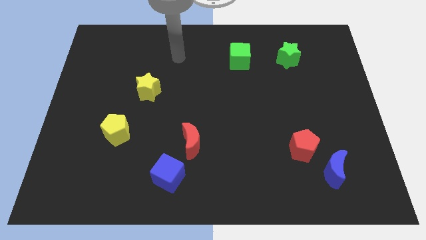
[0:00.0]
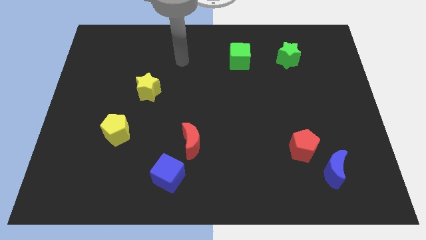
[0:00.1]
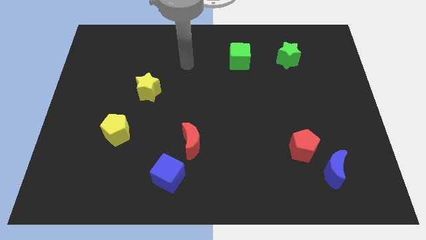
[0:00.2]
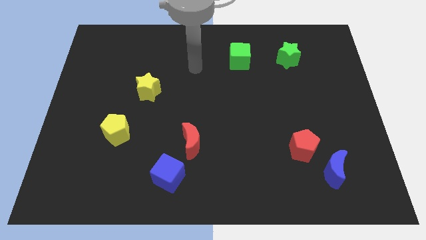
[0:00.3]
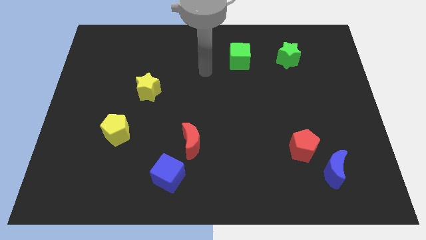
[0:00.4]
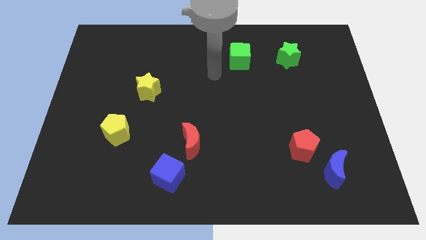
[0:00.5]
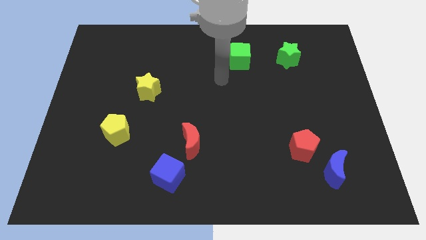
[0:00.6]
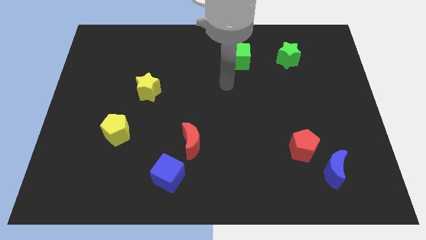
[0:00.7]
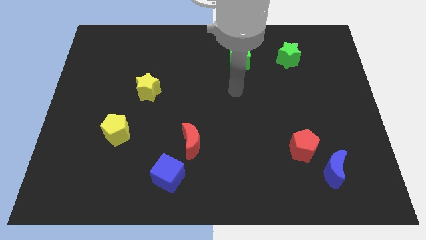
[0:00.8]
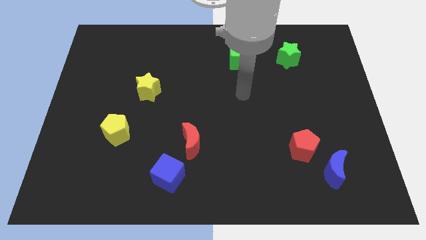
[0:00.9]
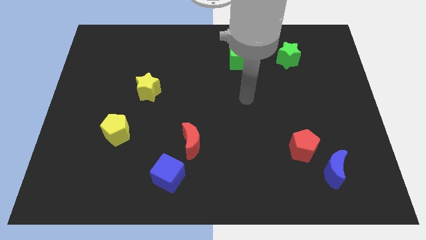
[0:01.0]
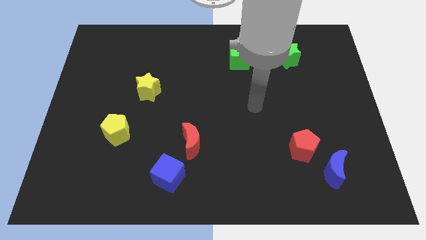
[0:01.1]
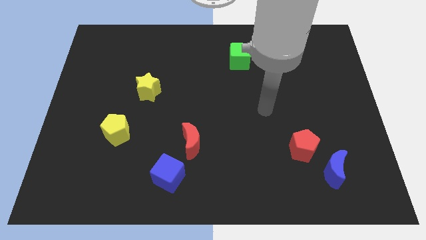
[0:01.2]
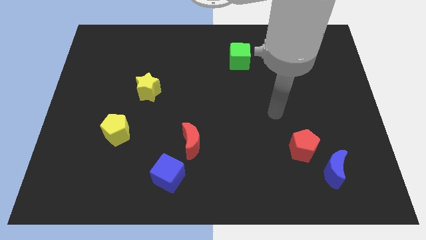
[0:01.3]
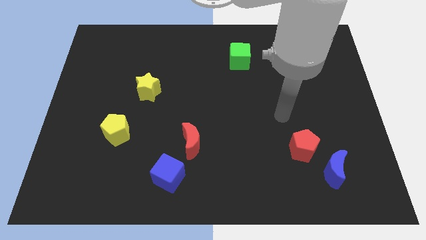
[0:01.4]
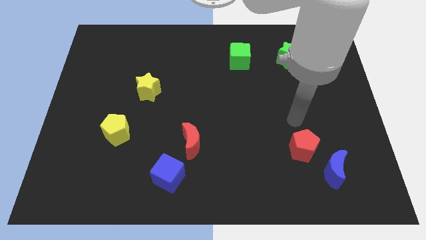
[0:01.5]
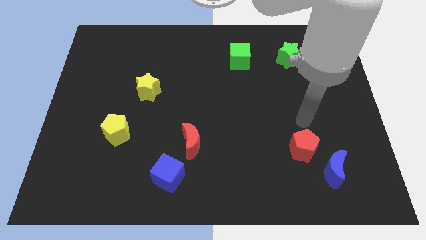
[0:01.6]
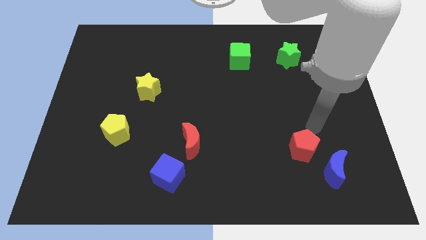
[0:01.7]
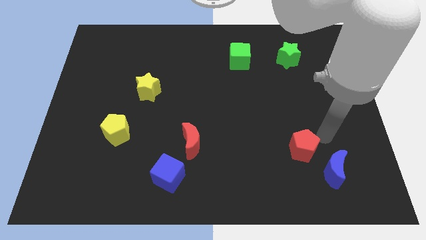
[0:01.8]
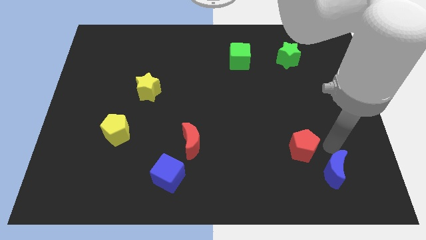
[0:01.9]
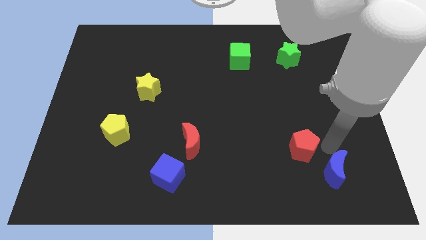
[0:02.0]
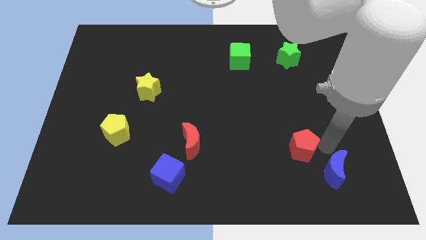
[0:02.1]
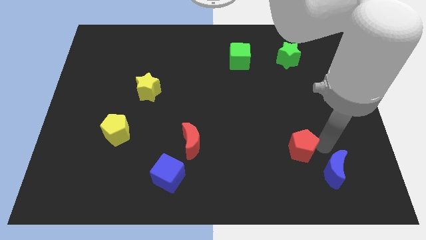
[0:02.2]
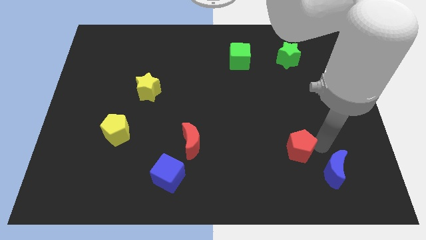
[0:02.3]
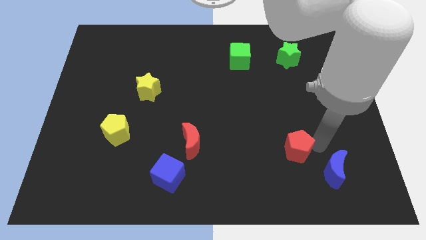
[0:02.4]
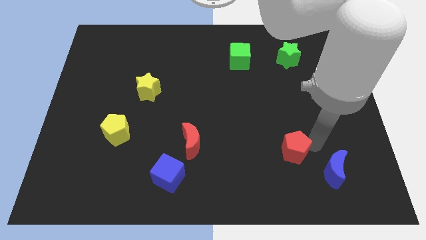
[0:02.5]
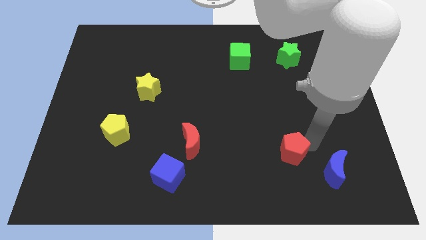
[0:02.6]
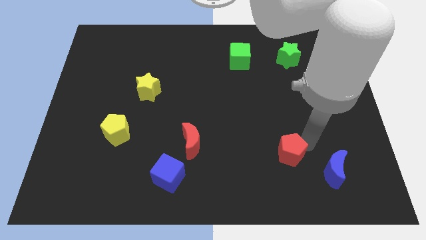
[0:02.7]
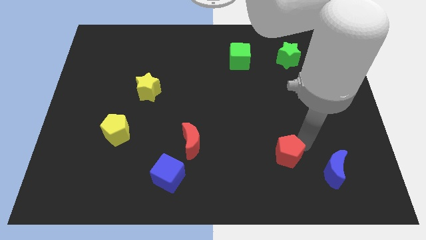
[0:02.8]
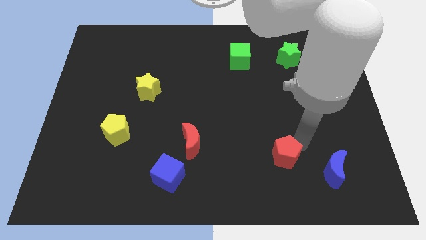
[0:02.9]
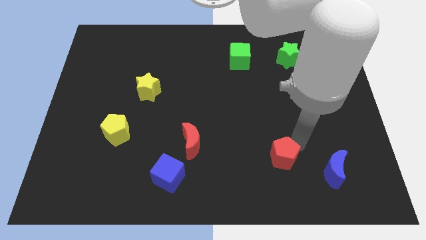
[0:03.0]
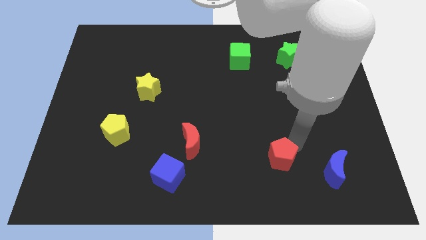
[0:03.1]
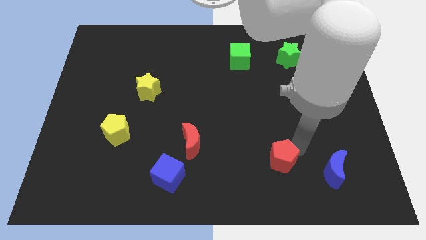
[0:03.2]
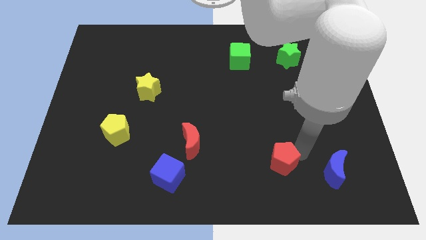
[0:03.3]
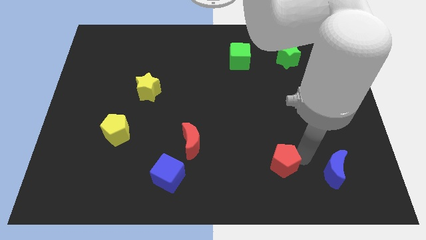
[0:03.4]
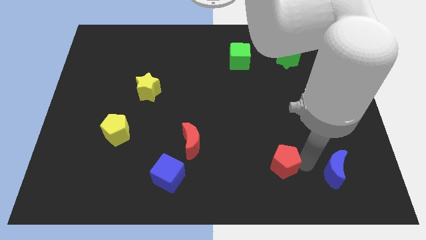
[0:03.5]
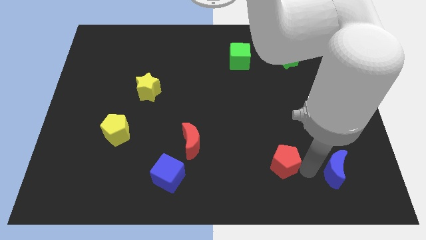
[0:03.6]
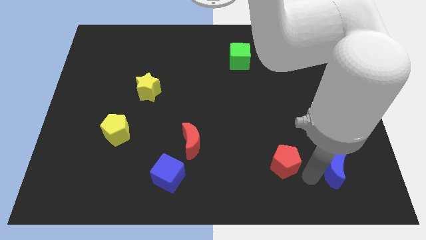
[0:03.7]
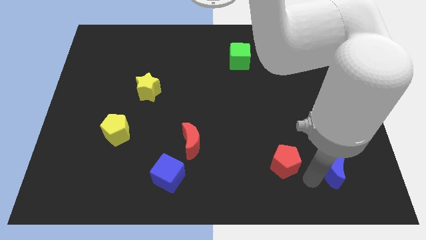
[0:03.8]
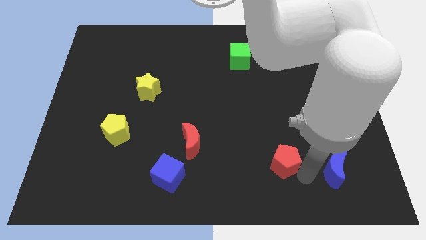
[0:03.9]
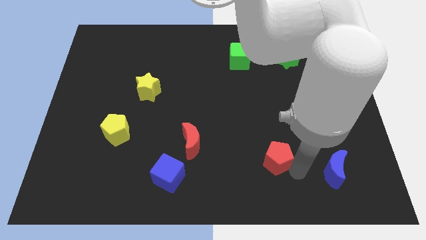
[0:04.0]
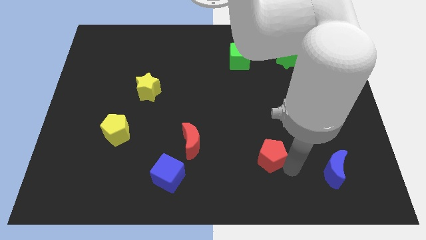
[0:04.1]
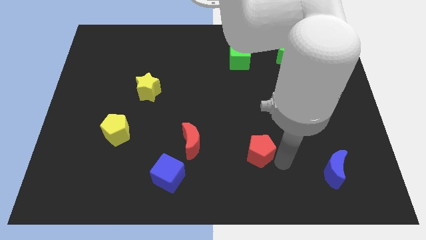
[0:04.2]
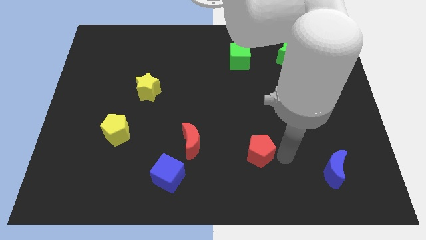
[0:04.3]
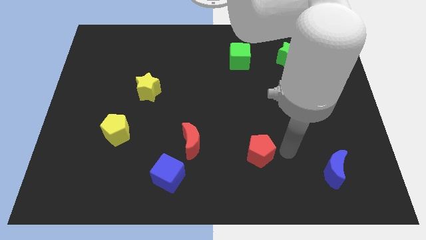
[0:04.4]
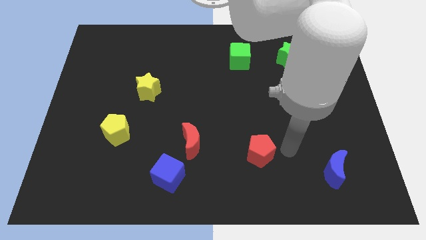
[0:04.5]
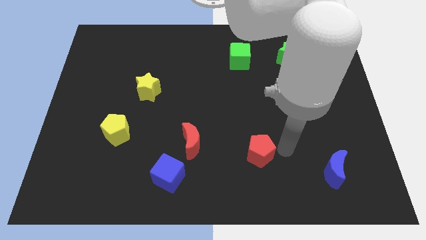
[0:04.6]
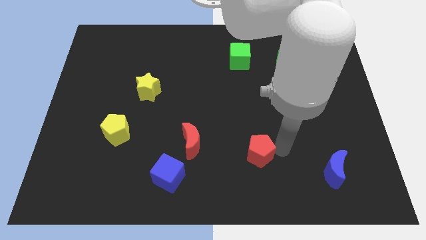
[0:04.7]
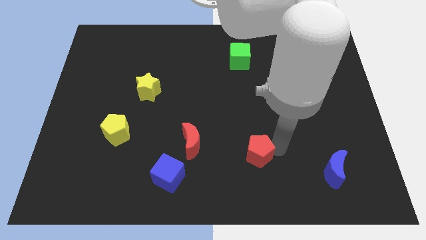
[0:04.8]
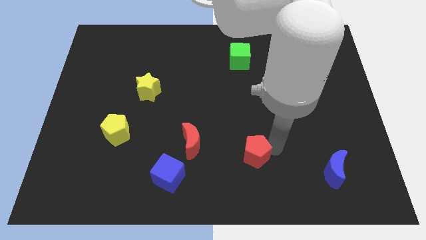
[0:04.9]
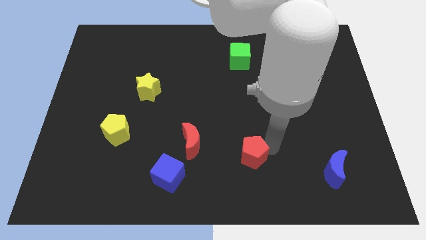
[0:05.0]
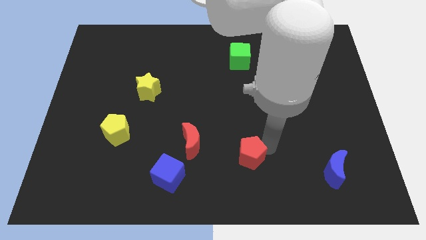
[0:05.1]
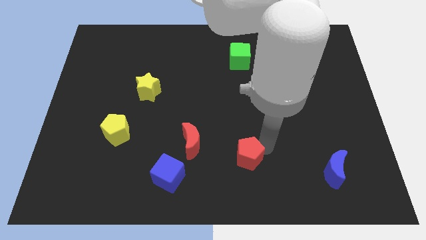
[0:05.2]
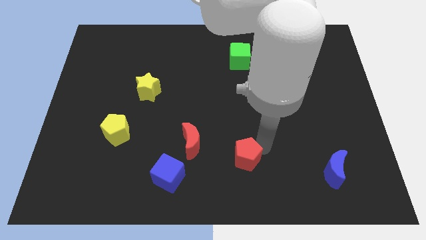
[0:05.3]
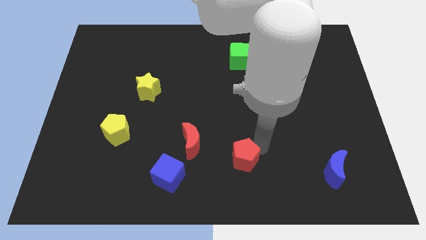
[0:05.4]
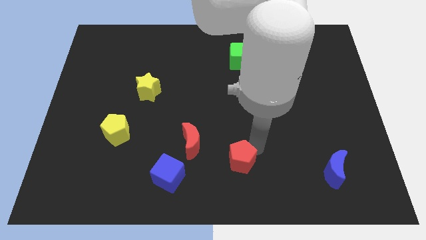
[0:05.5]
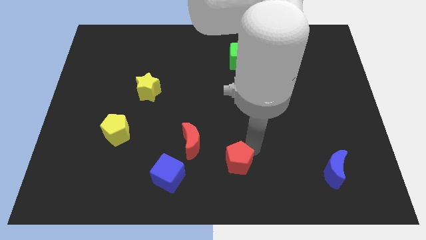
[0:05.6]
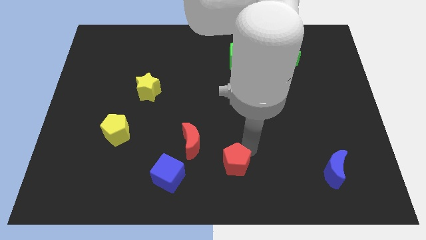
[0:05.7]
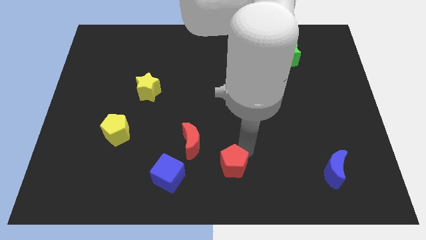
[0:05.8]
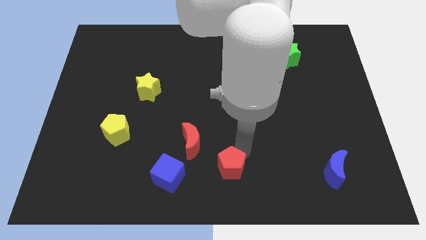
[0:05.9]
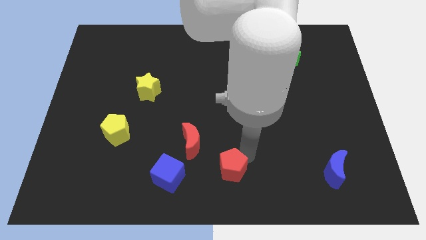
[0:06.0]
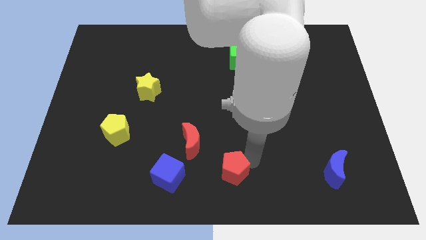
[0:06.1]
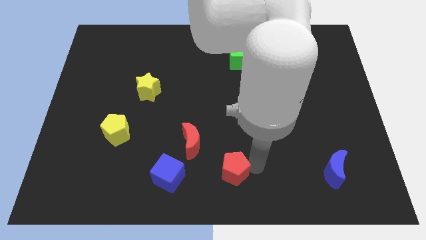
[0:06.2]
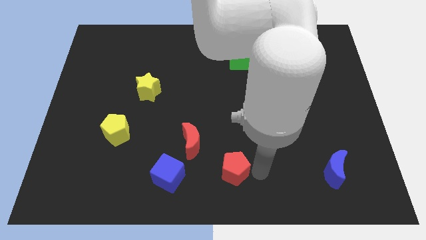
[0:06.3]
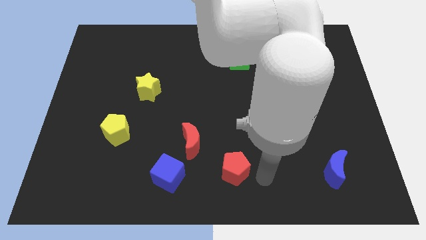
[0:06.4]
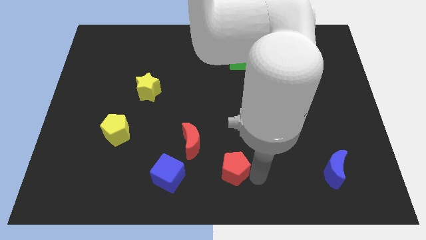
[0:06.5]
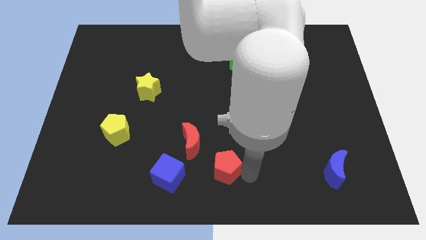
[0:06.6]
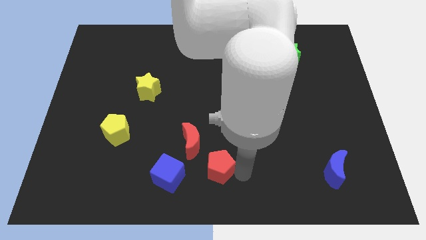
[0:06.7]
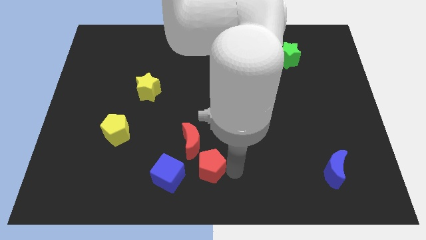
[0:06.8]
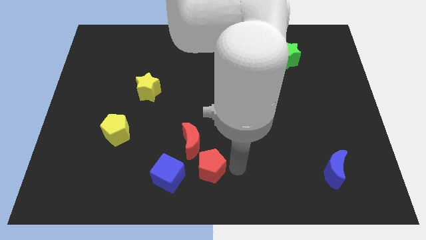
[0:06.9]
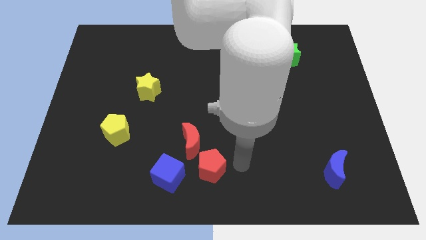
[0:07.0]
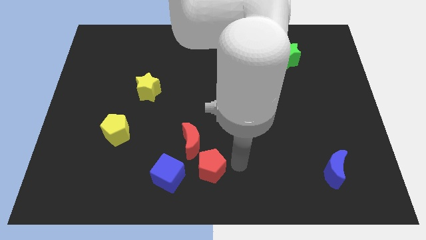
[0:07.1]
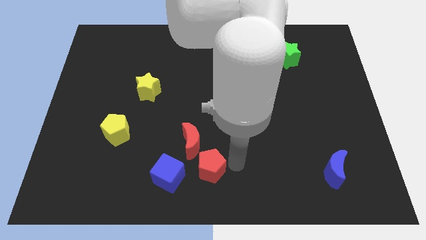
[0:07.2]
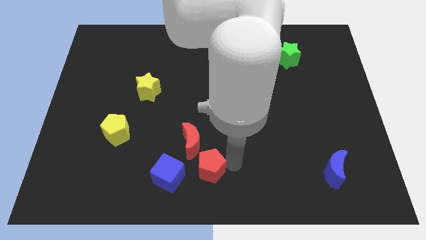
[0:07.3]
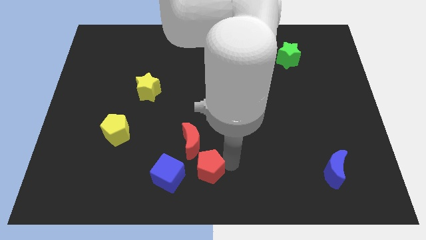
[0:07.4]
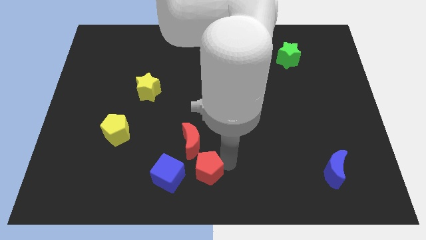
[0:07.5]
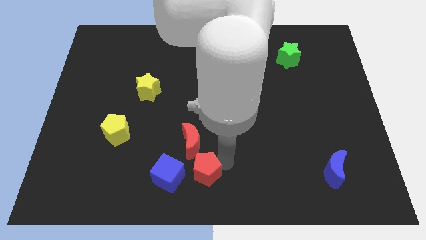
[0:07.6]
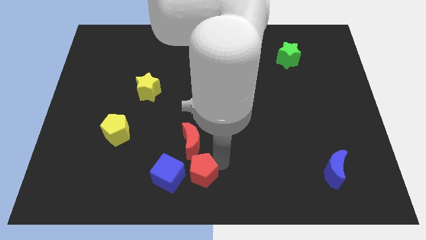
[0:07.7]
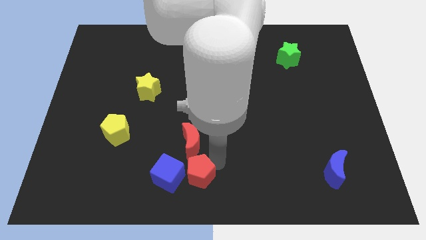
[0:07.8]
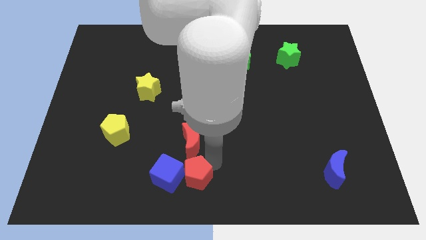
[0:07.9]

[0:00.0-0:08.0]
push the red pentagon to the blue cube
